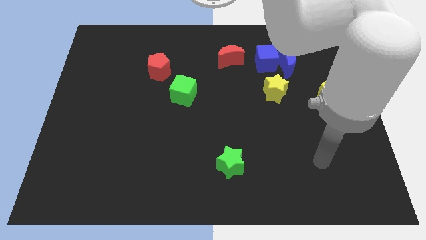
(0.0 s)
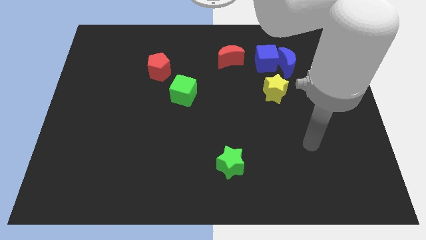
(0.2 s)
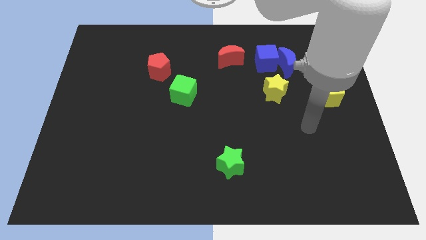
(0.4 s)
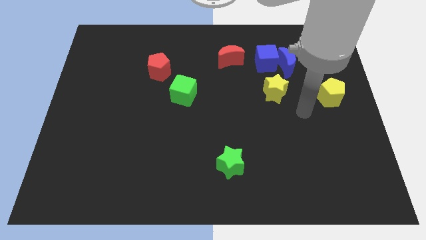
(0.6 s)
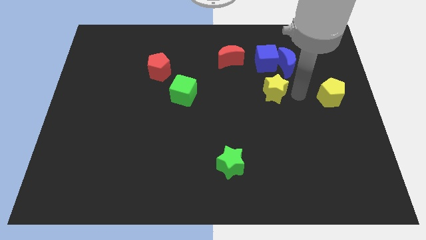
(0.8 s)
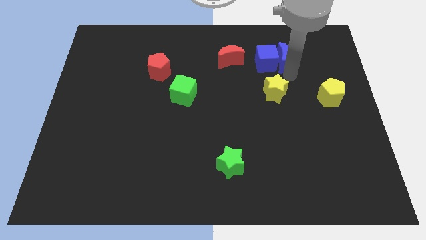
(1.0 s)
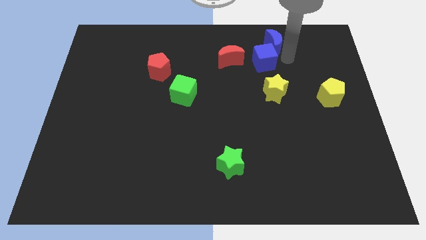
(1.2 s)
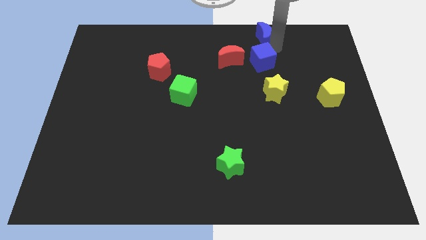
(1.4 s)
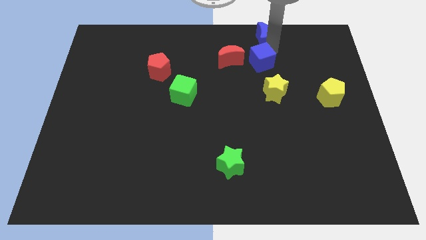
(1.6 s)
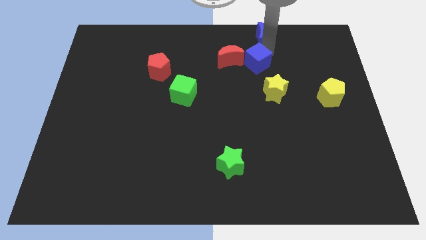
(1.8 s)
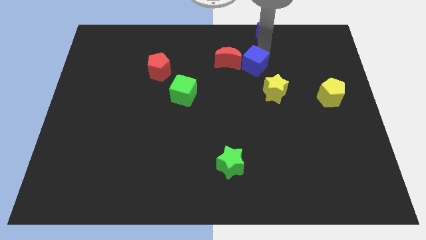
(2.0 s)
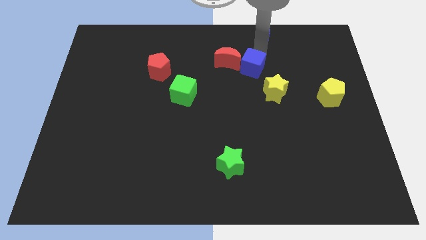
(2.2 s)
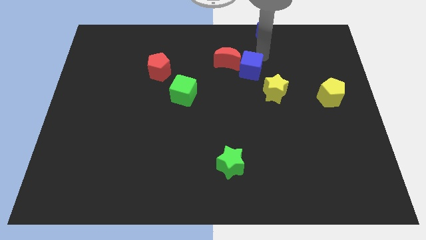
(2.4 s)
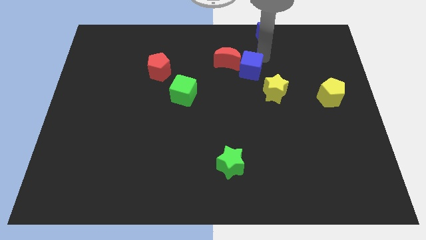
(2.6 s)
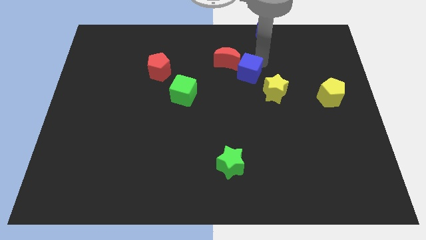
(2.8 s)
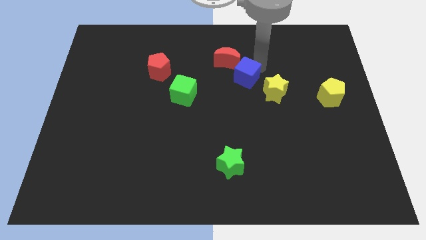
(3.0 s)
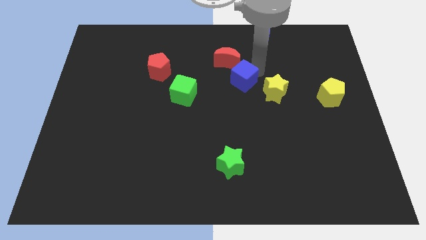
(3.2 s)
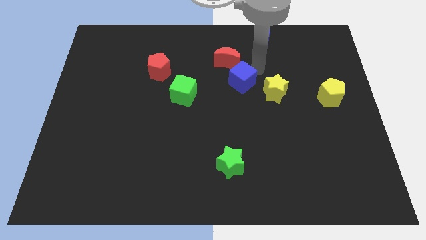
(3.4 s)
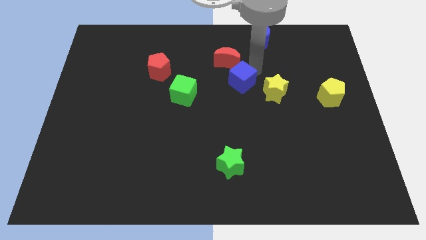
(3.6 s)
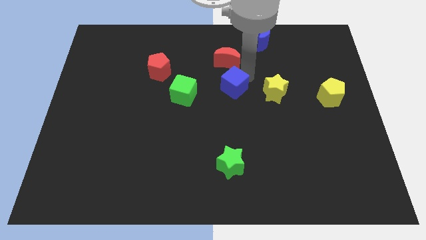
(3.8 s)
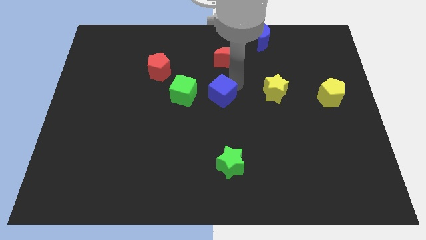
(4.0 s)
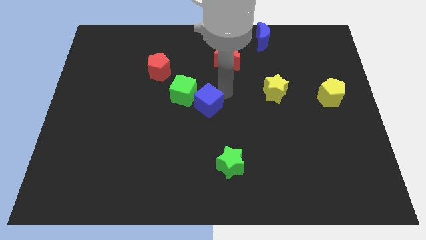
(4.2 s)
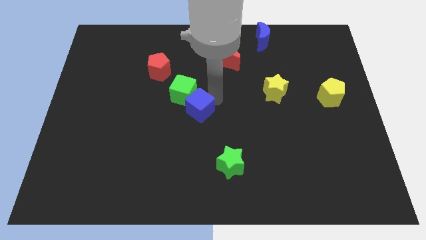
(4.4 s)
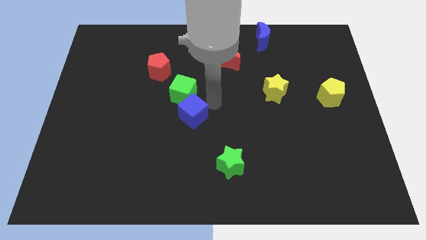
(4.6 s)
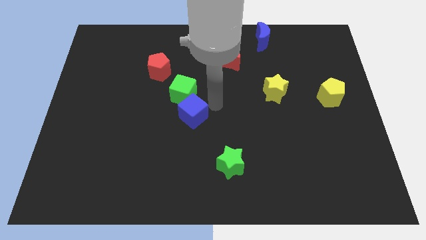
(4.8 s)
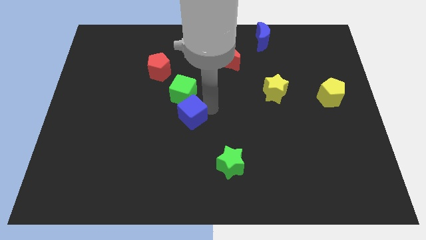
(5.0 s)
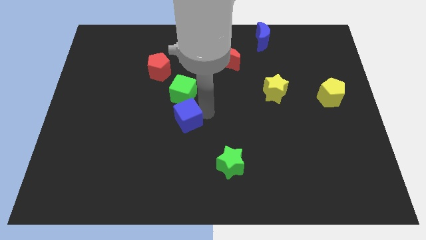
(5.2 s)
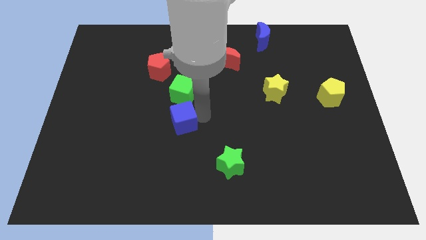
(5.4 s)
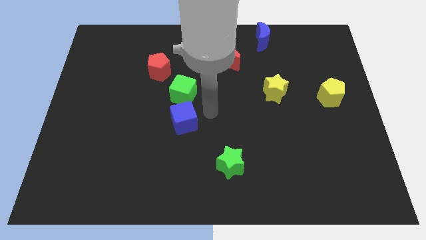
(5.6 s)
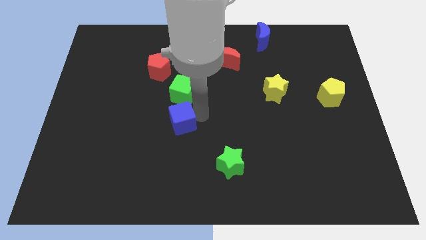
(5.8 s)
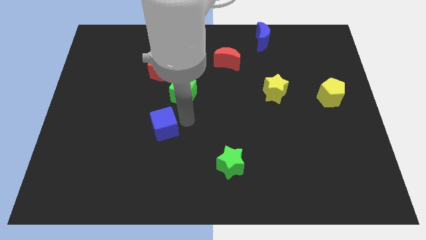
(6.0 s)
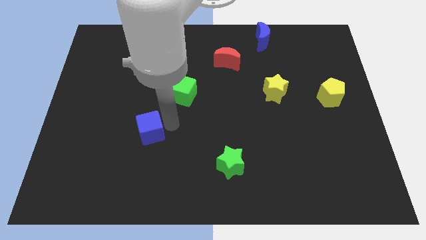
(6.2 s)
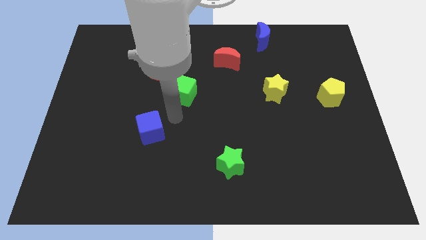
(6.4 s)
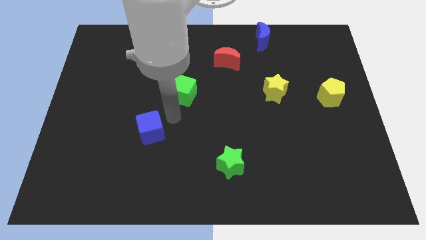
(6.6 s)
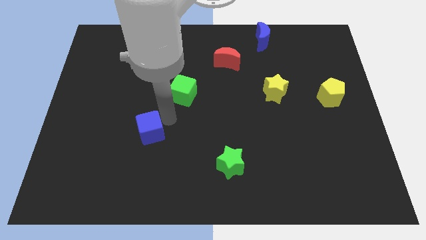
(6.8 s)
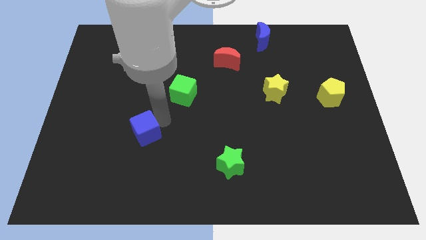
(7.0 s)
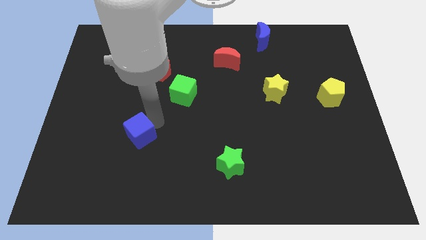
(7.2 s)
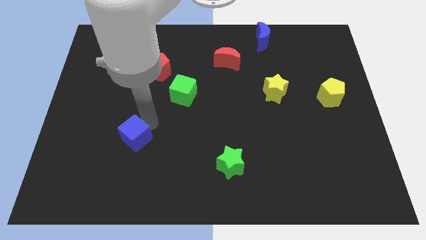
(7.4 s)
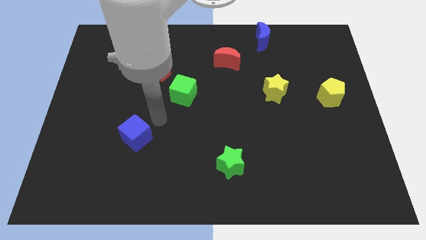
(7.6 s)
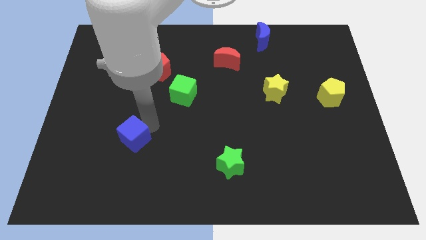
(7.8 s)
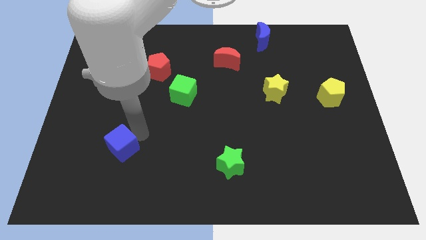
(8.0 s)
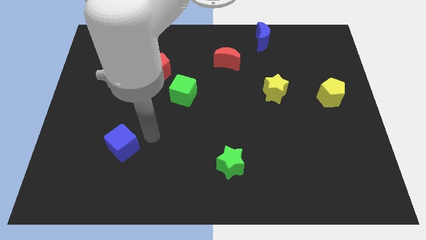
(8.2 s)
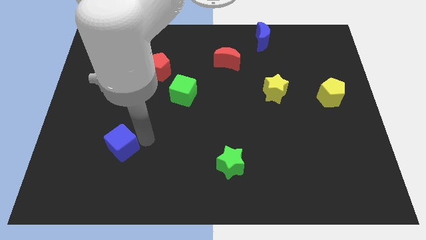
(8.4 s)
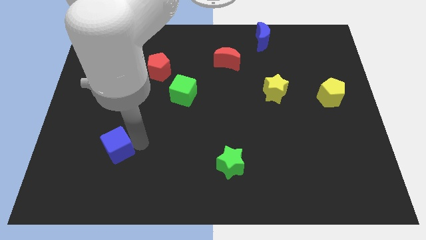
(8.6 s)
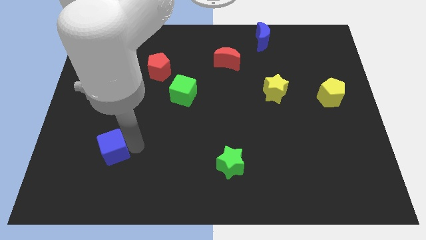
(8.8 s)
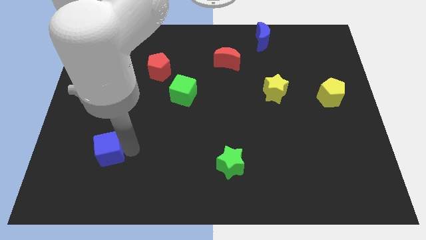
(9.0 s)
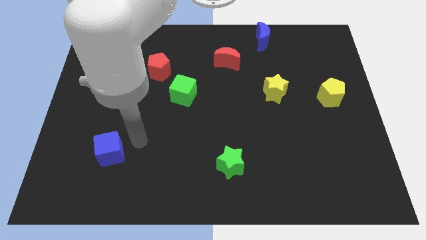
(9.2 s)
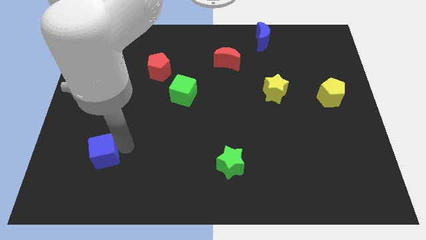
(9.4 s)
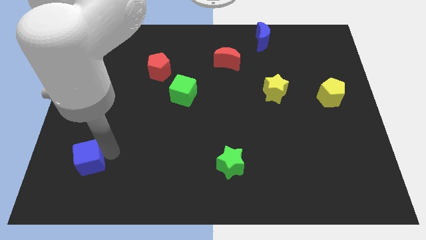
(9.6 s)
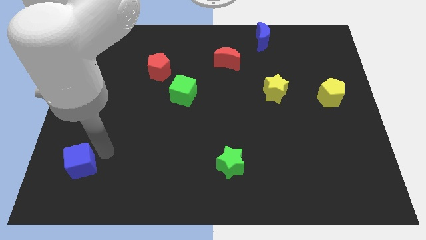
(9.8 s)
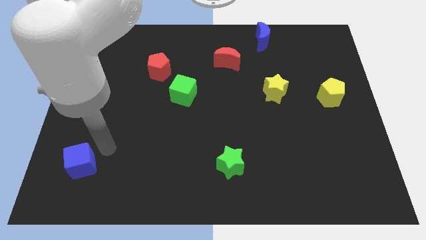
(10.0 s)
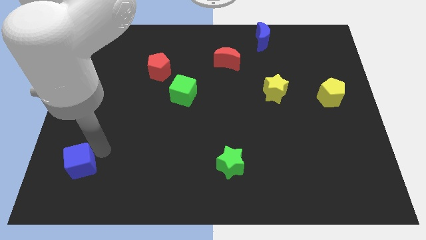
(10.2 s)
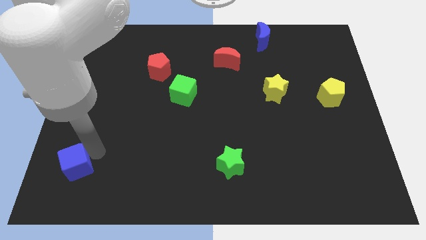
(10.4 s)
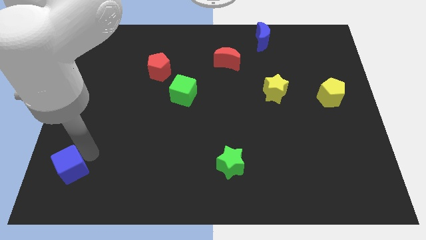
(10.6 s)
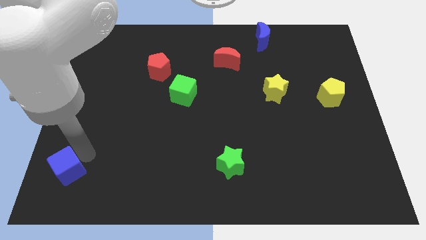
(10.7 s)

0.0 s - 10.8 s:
move the blue cube to the bottom left corner
